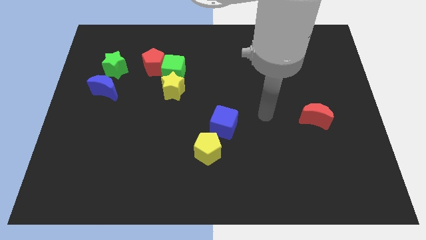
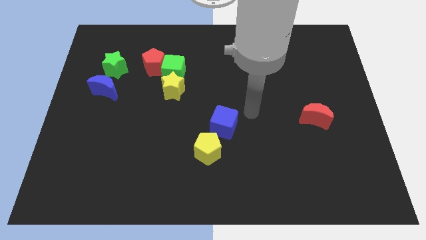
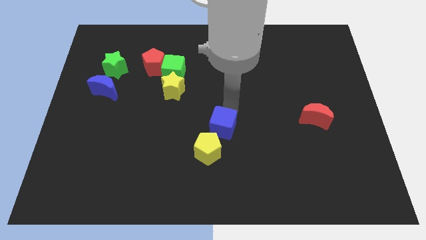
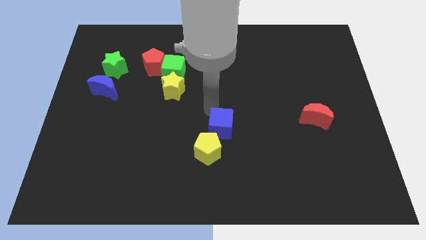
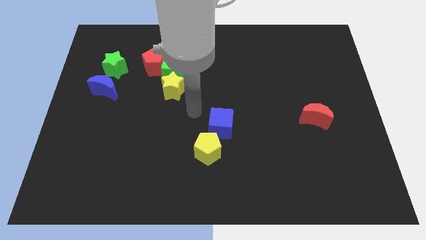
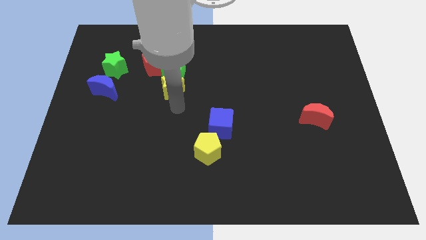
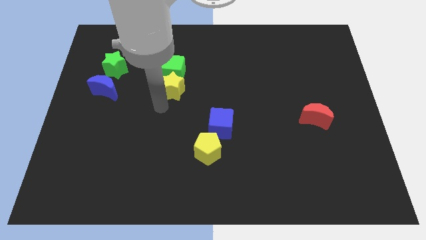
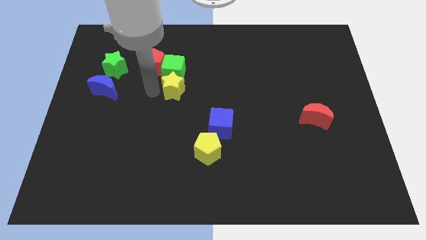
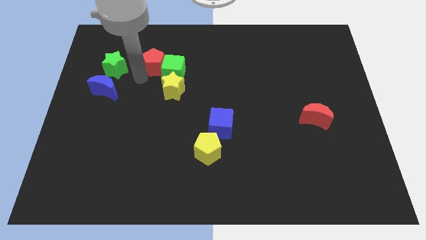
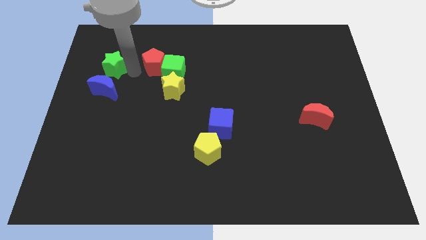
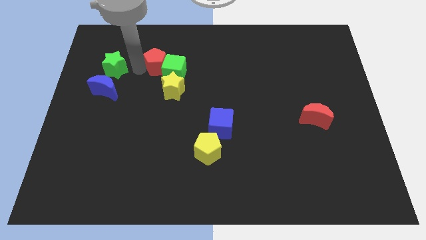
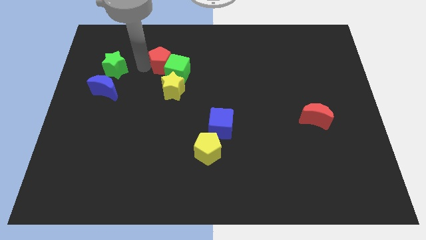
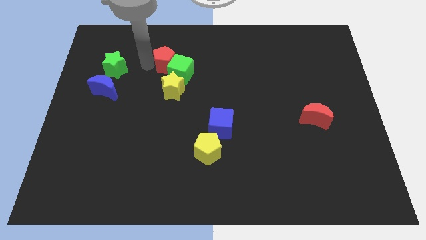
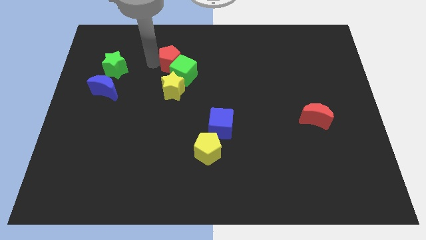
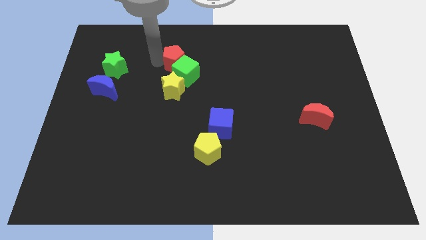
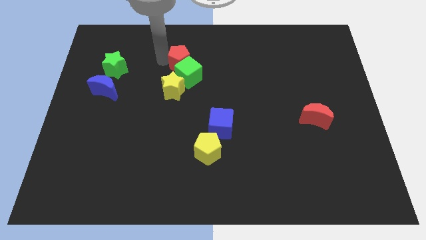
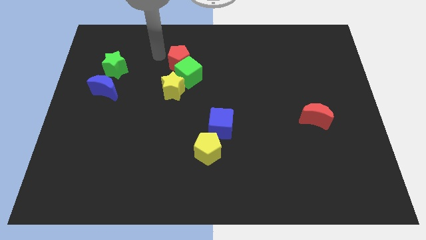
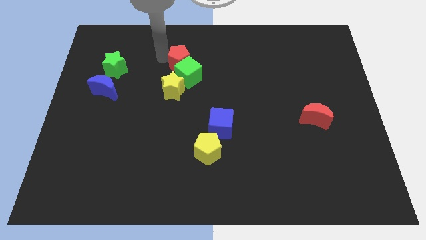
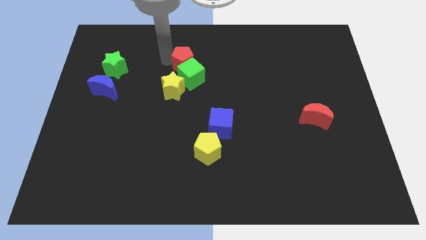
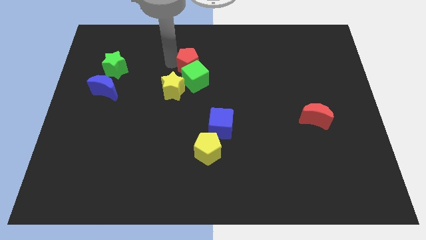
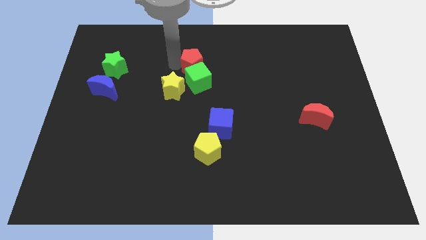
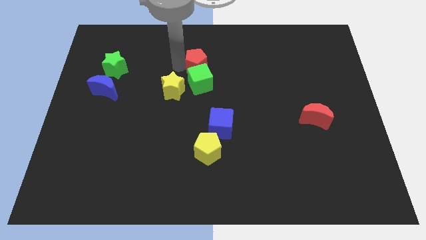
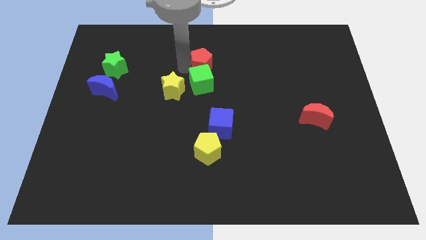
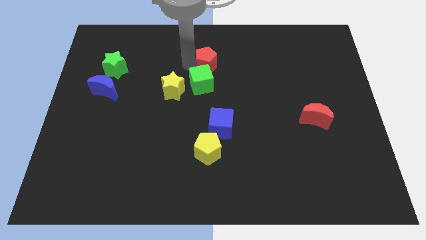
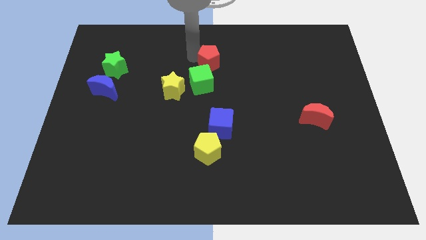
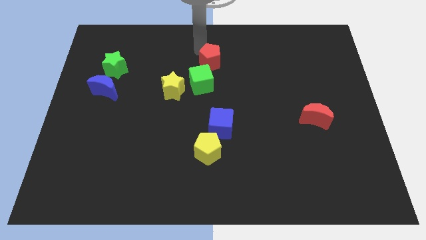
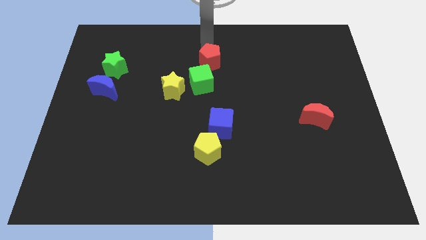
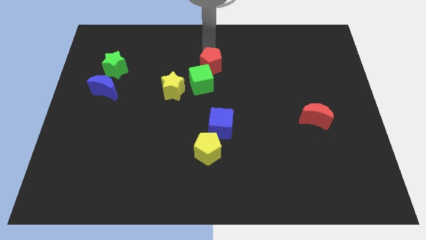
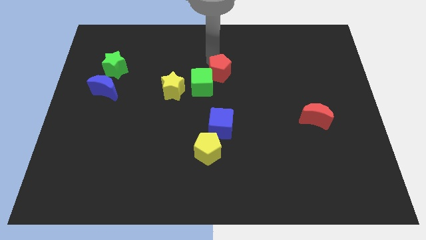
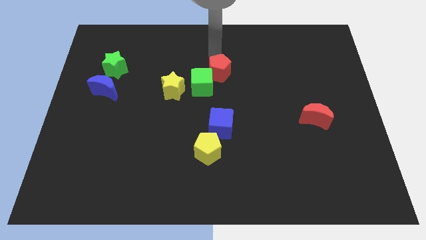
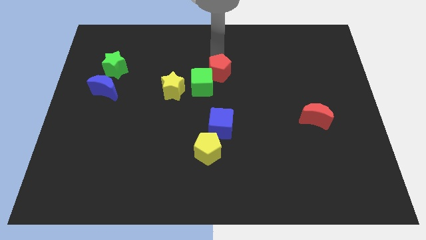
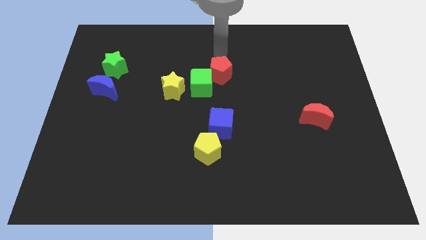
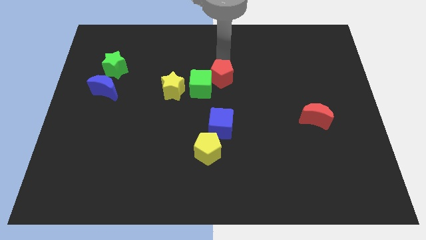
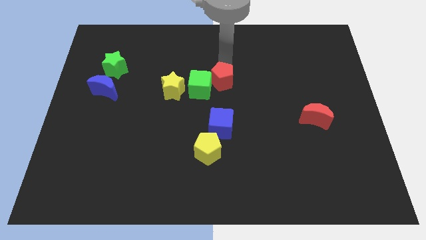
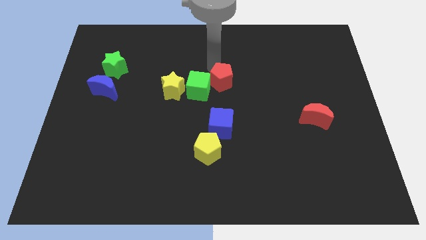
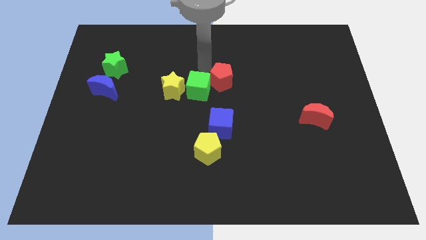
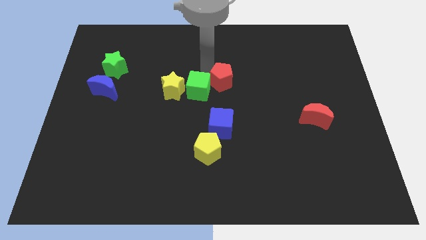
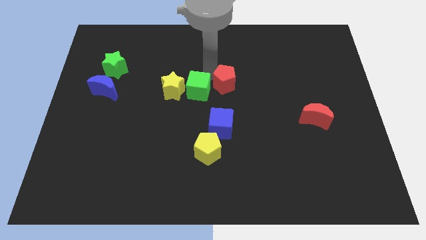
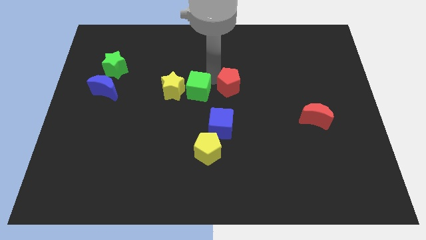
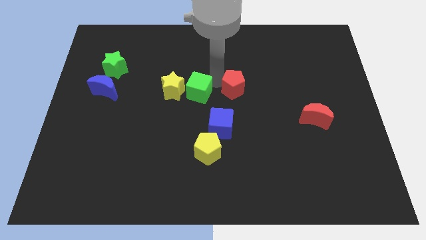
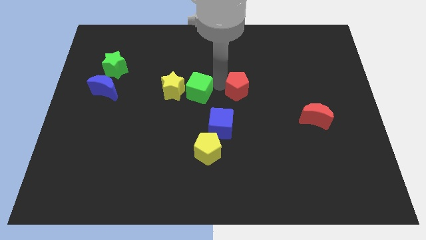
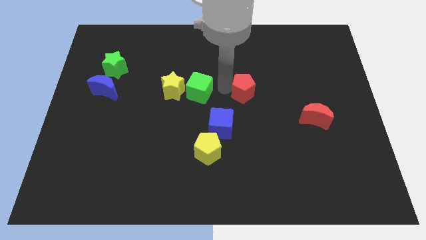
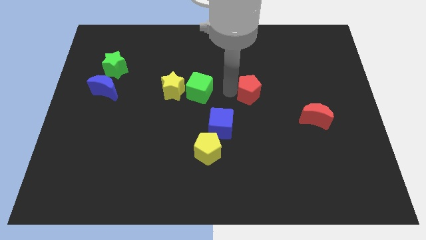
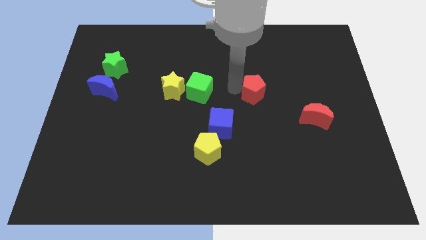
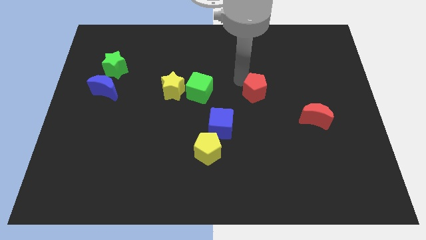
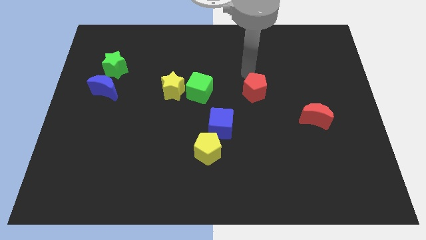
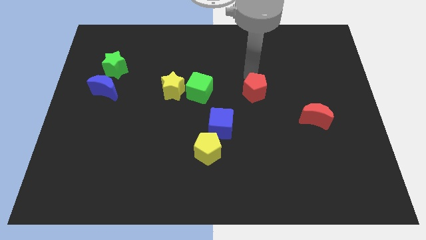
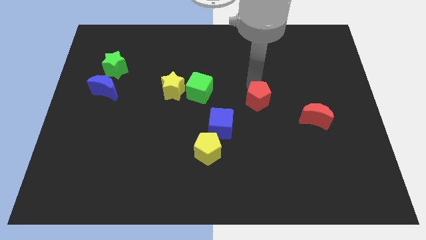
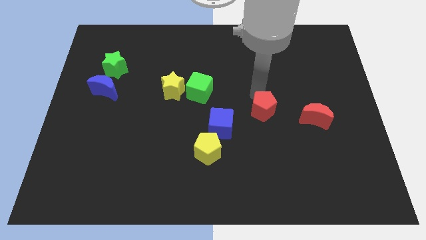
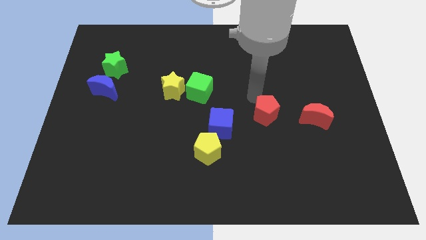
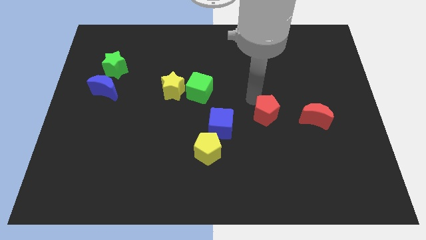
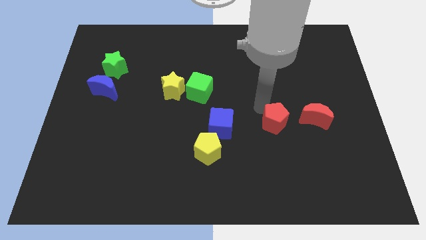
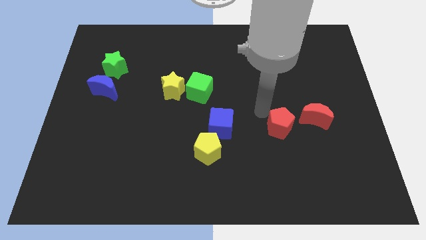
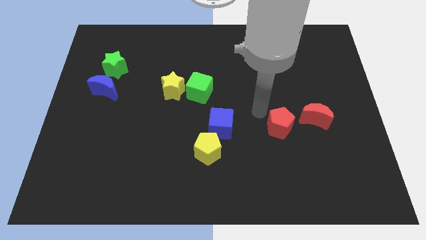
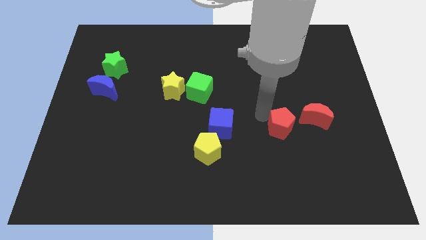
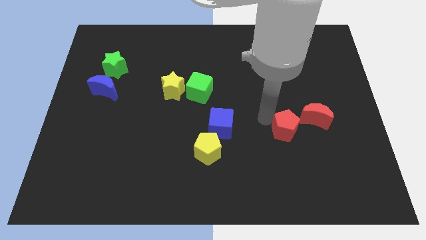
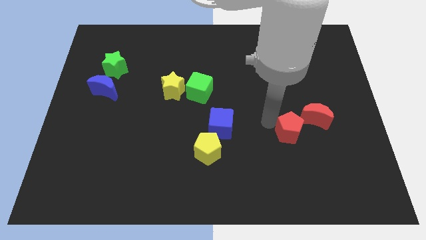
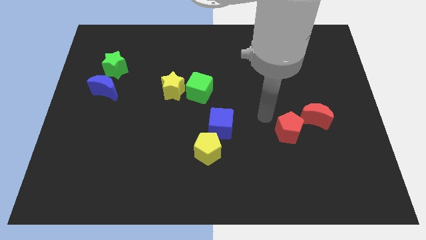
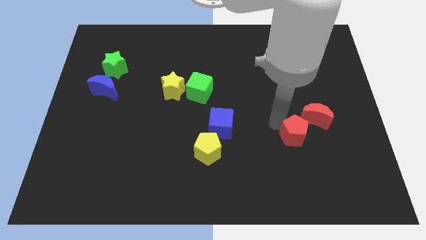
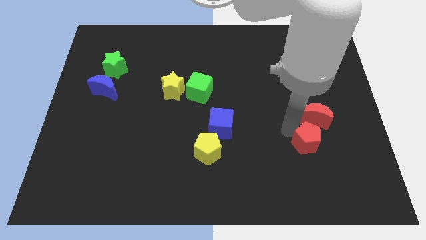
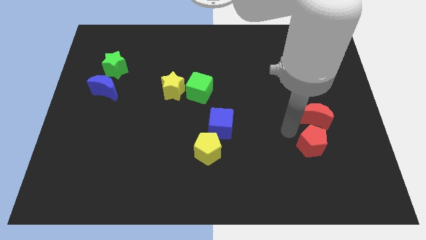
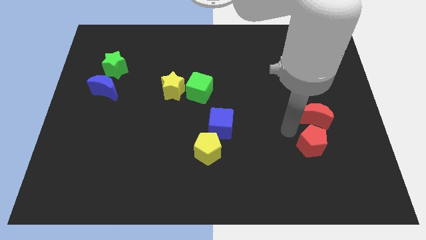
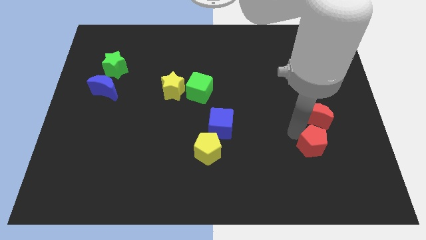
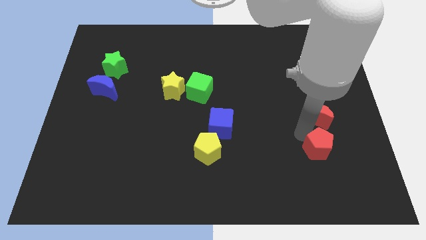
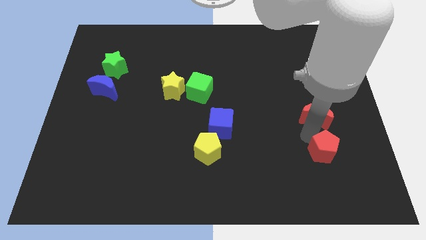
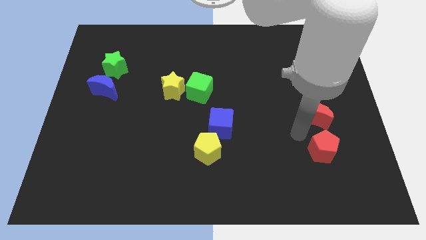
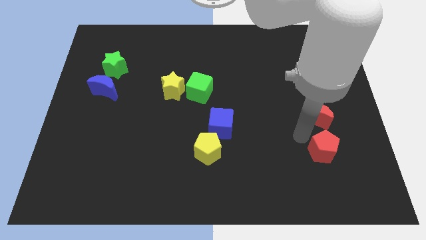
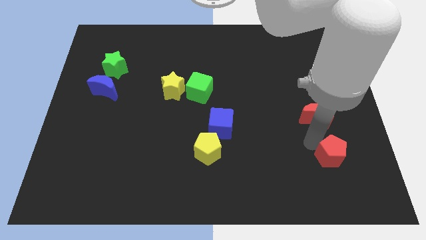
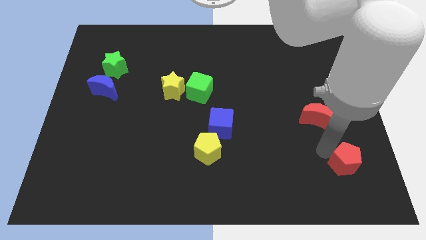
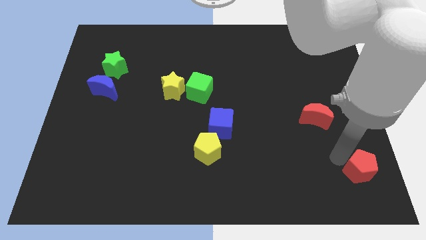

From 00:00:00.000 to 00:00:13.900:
slide the red pentagon to the bottom right
